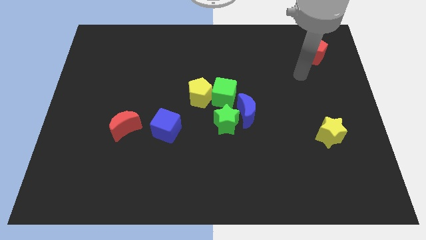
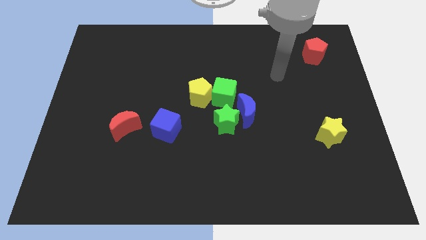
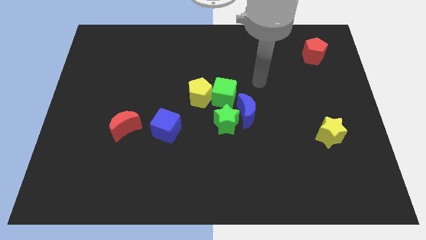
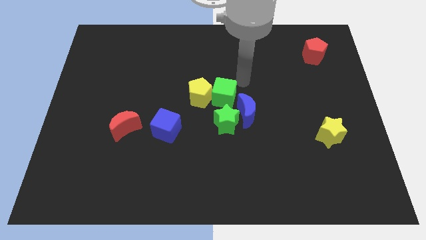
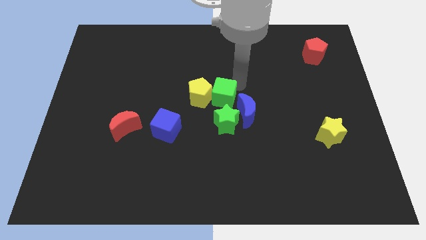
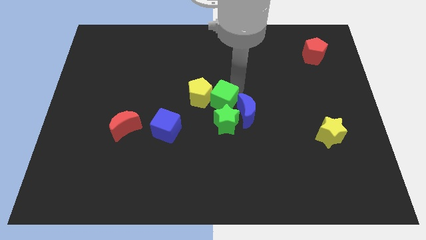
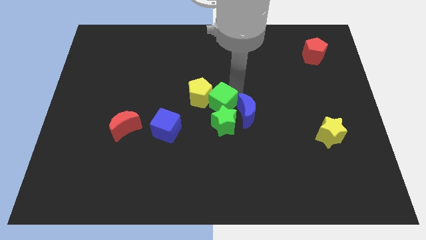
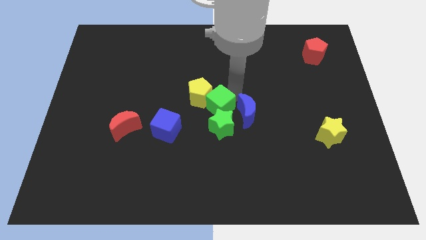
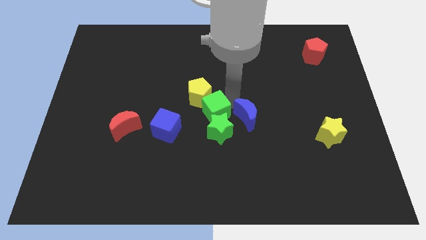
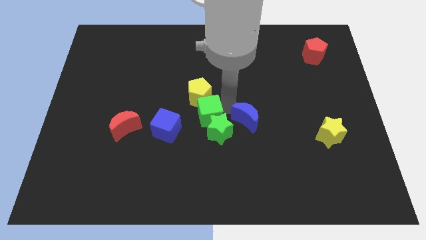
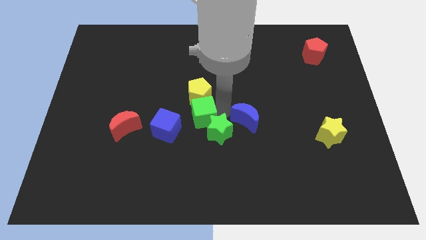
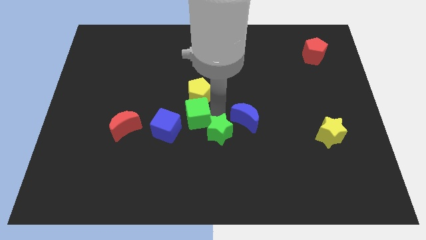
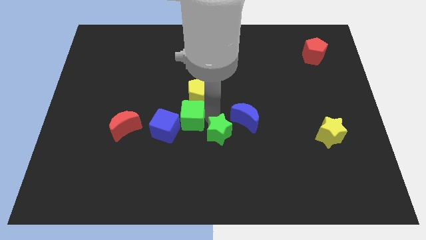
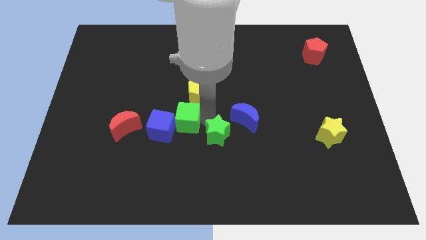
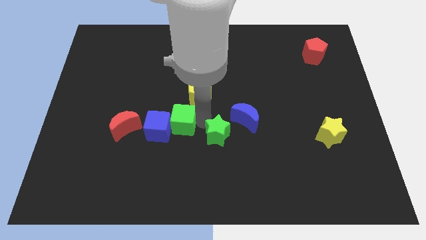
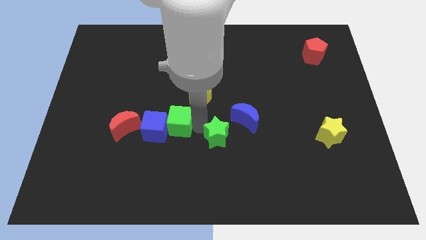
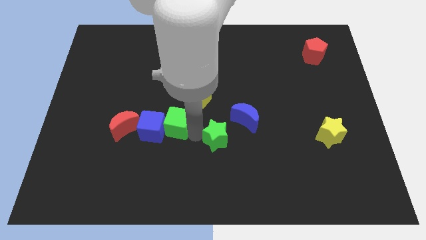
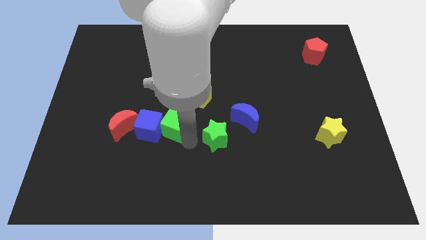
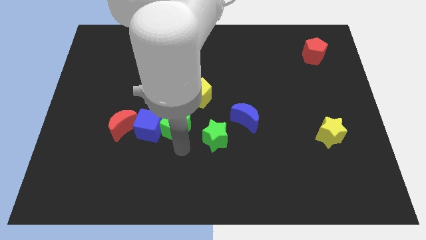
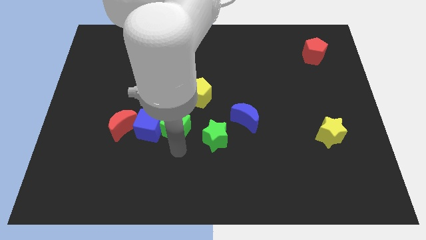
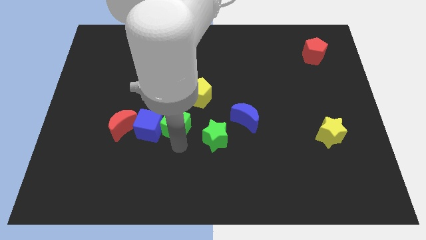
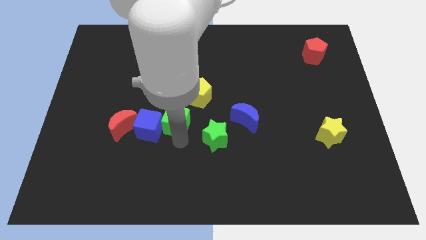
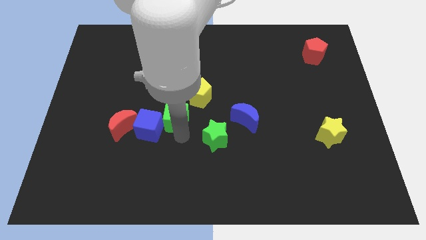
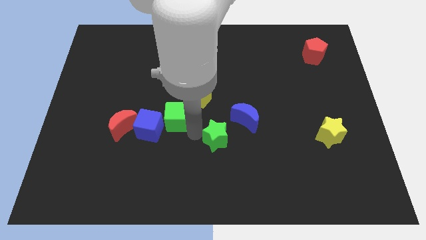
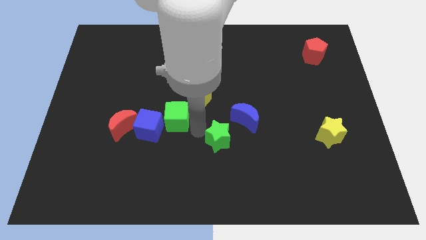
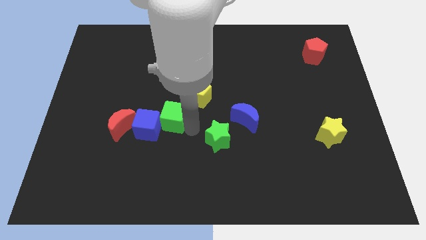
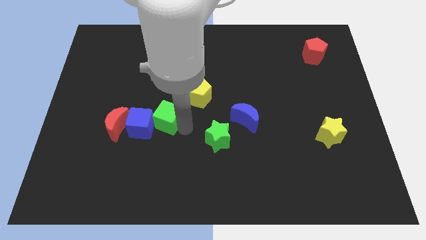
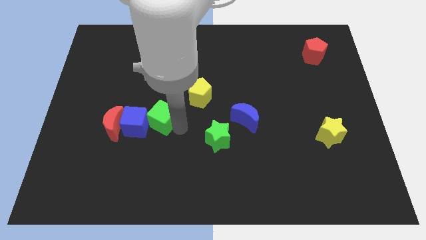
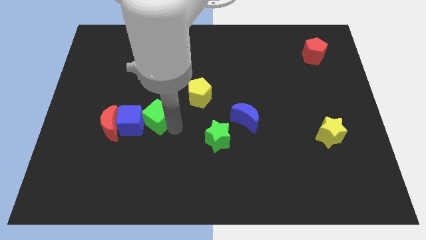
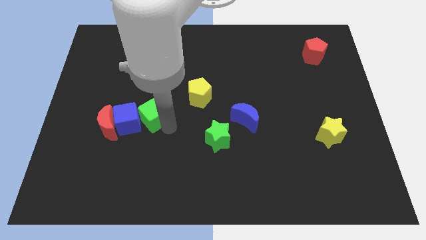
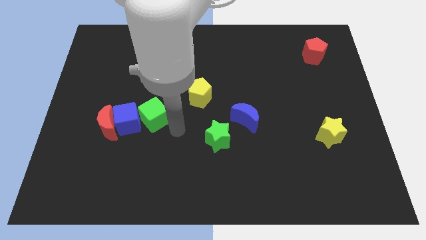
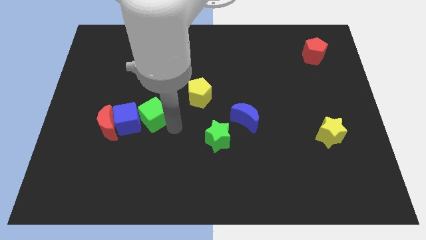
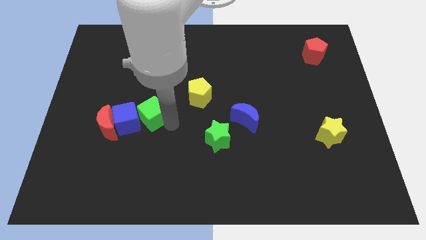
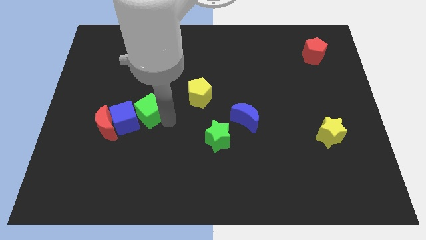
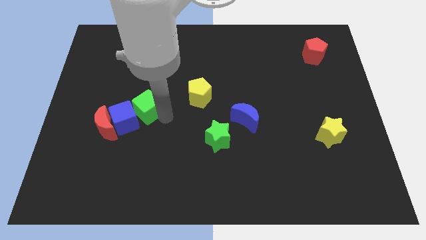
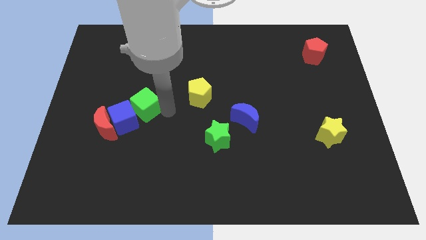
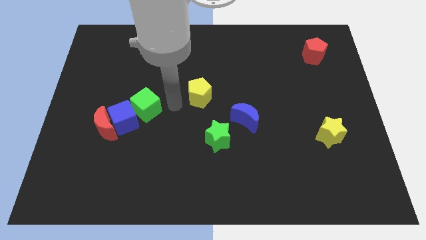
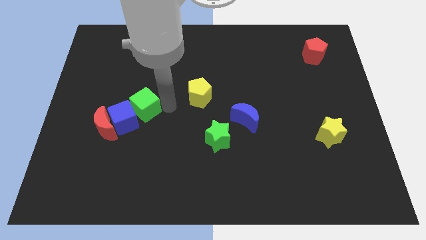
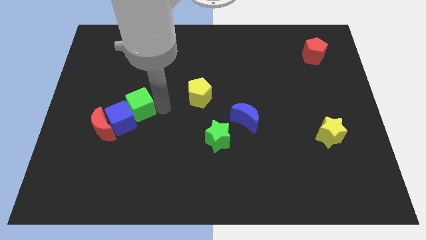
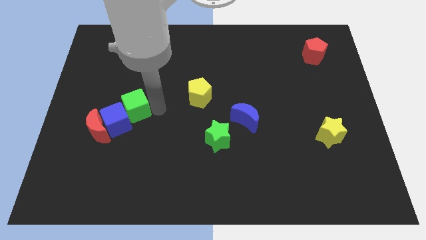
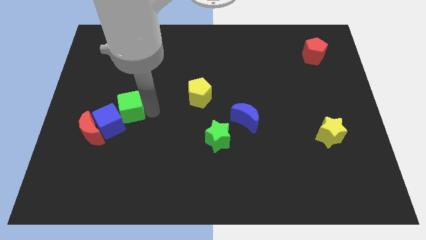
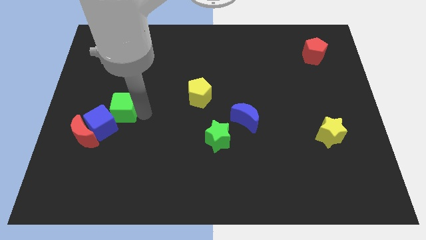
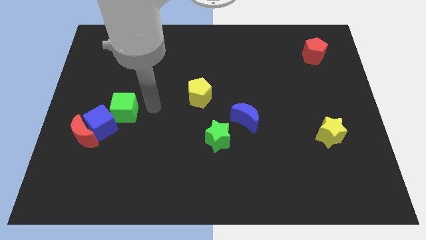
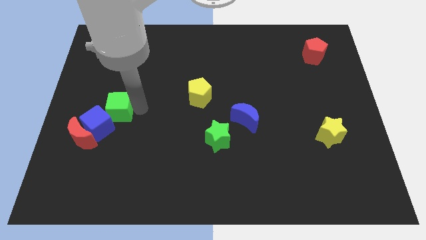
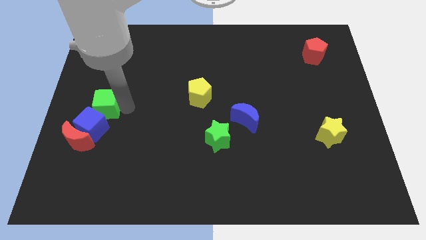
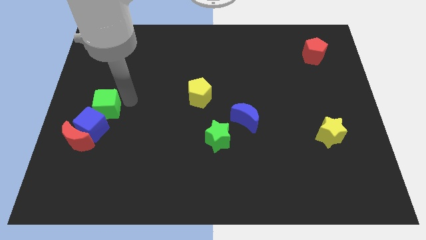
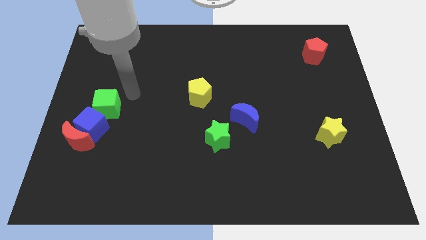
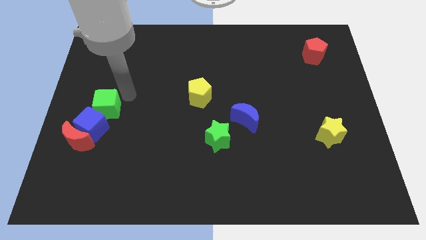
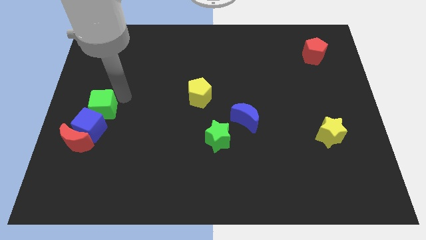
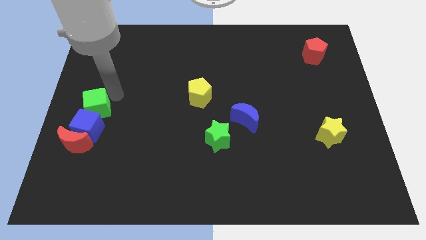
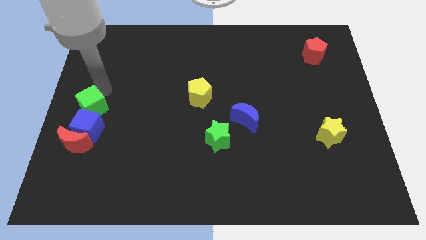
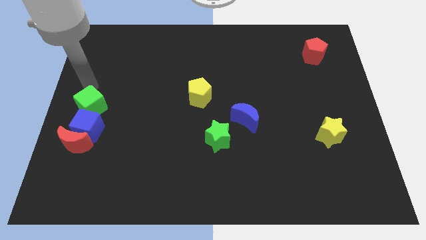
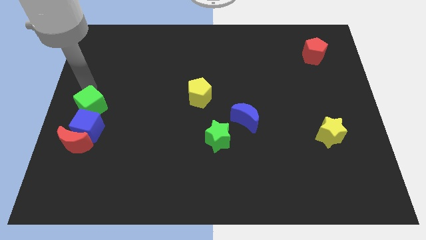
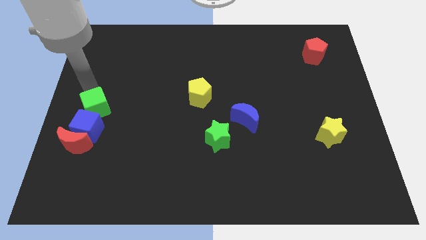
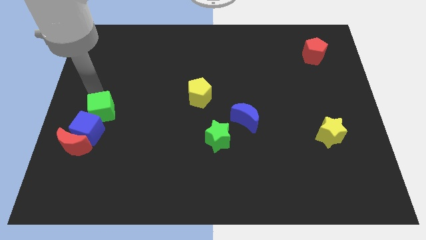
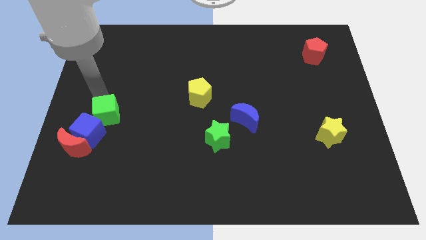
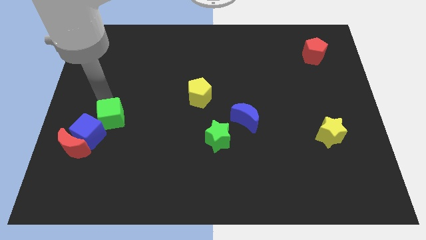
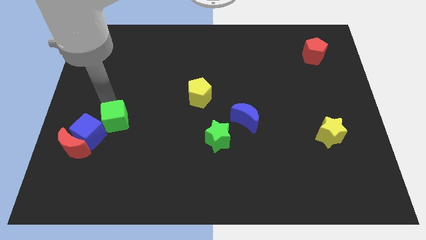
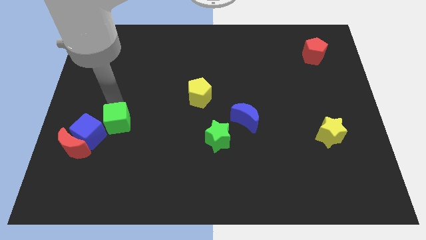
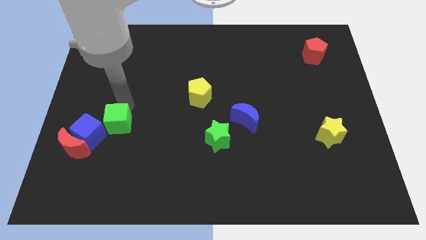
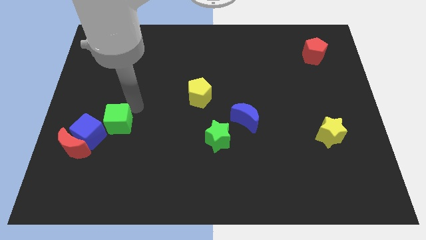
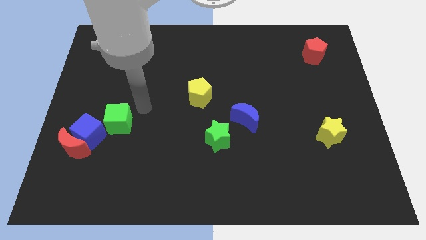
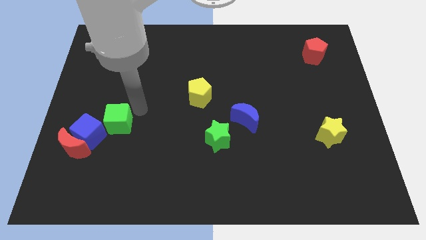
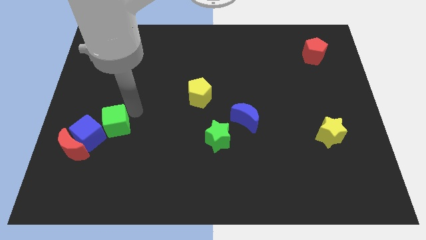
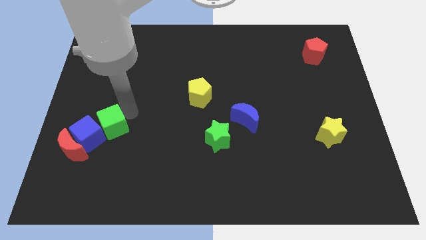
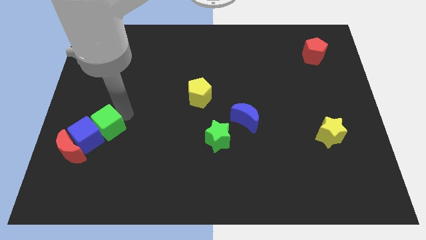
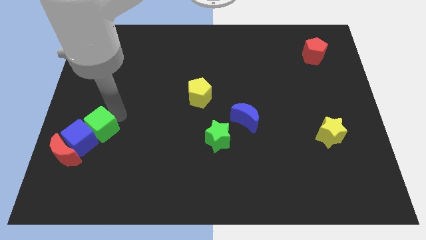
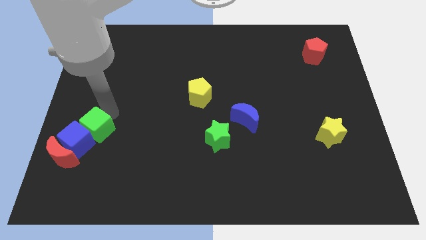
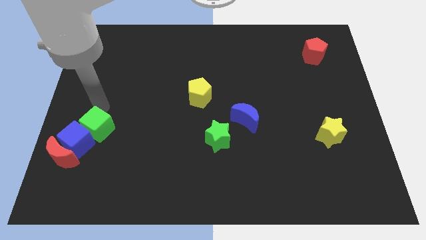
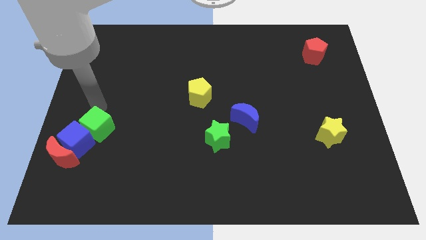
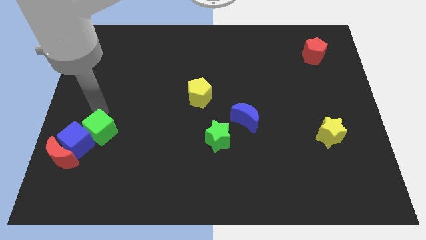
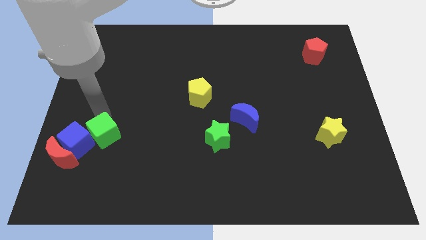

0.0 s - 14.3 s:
push the green cube diagonally down and left

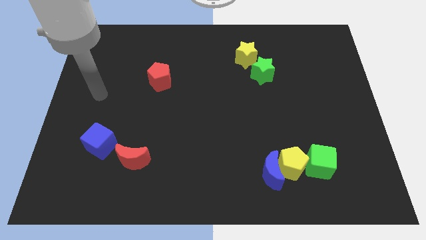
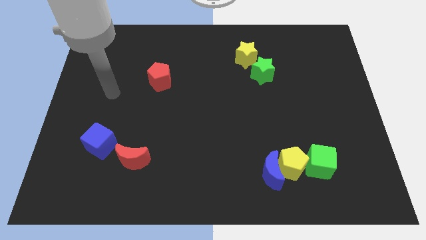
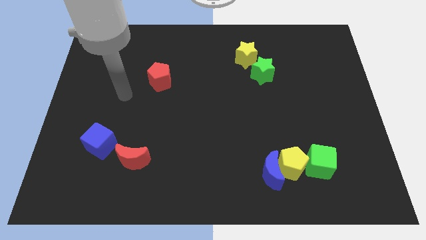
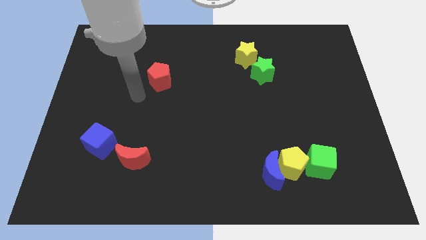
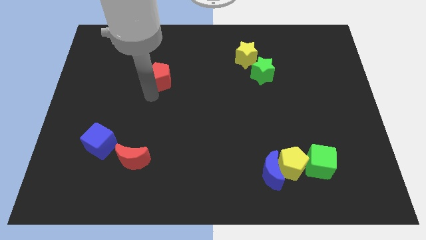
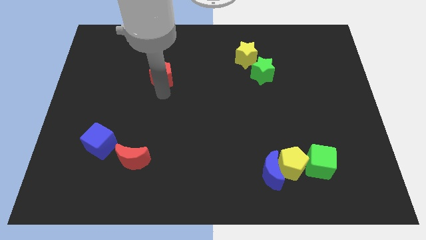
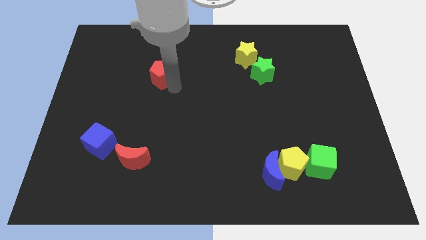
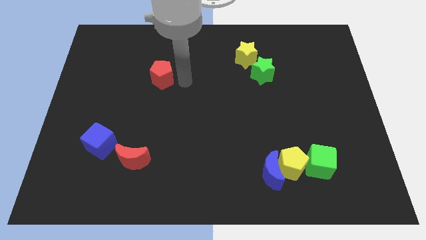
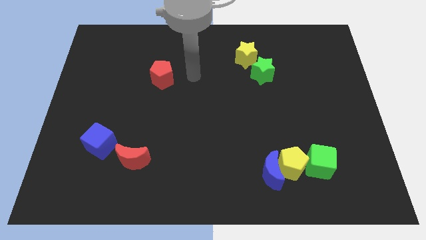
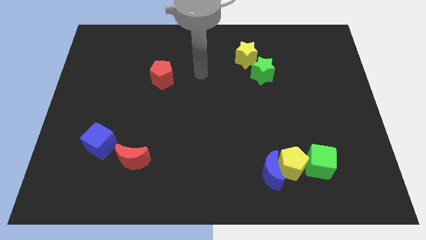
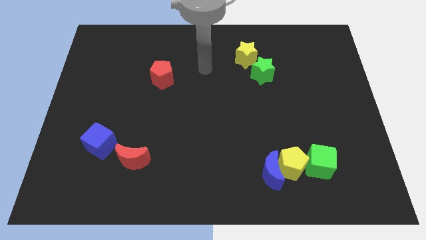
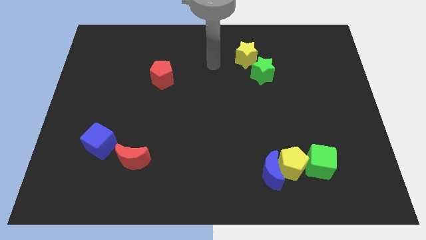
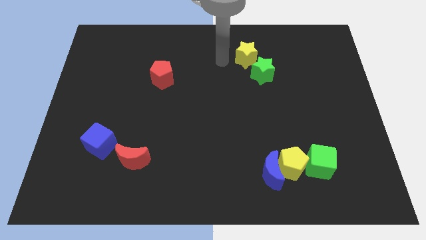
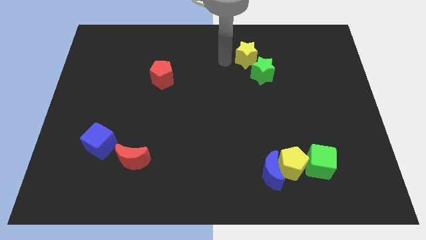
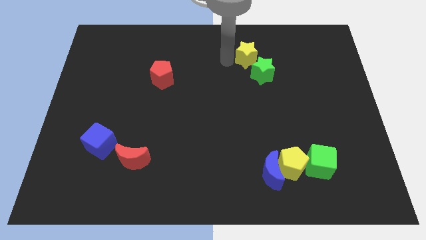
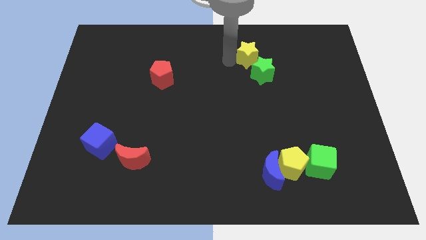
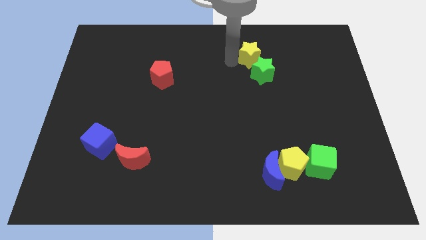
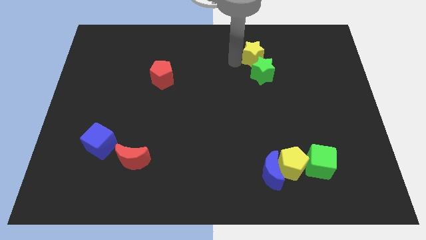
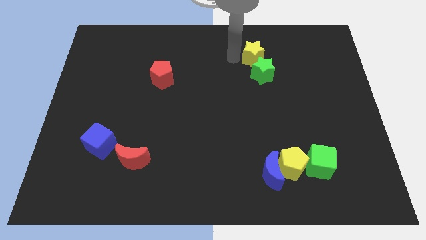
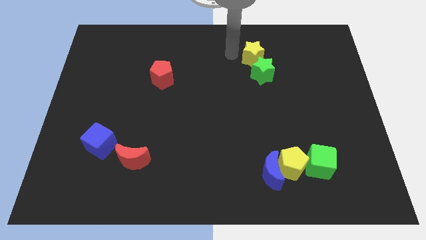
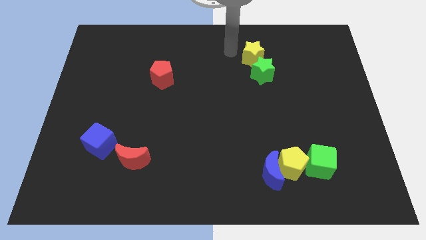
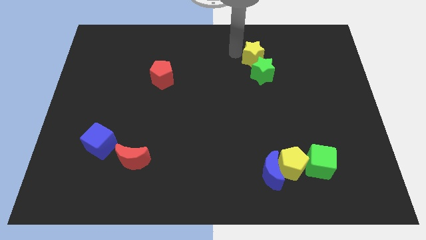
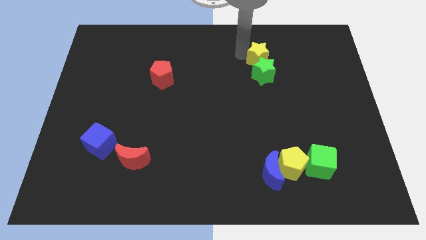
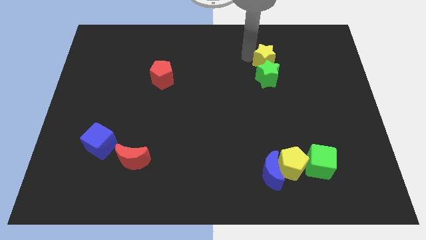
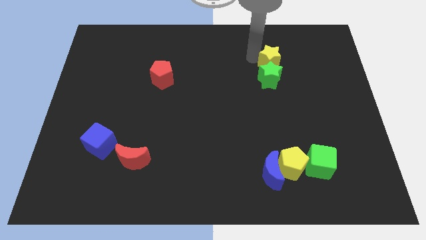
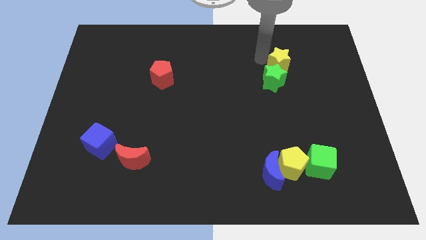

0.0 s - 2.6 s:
slightly push the yellow star down and then right
